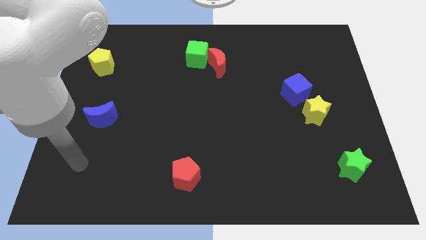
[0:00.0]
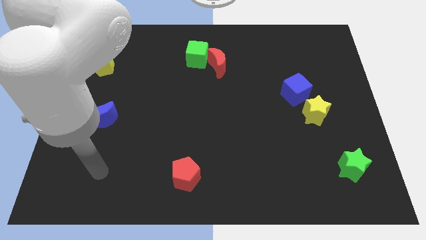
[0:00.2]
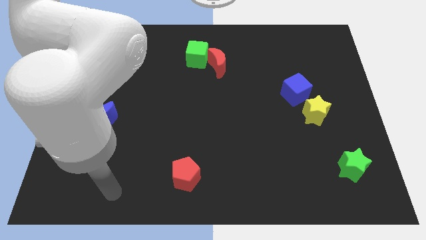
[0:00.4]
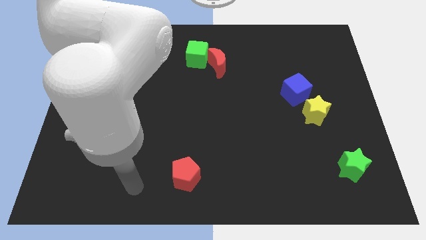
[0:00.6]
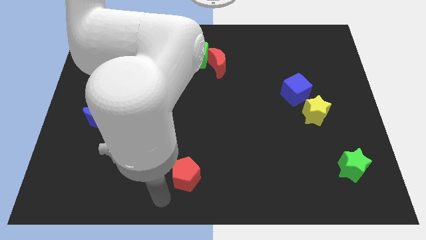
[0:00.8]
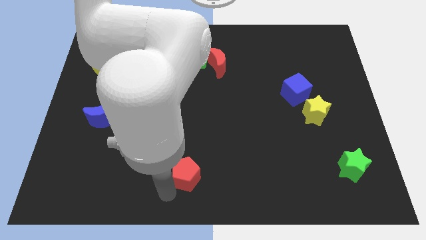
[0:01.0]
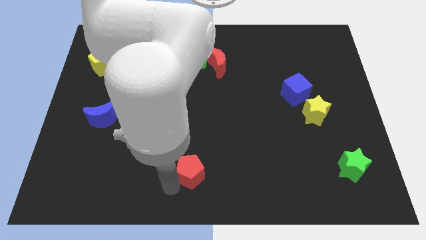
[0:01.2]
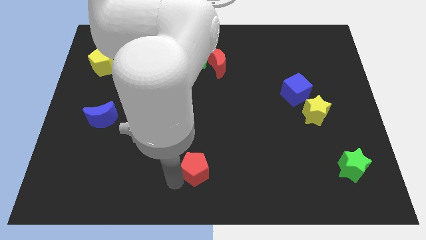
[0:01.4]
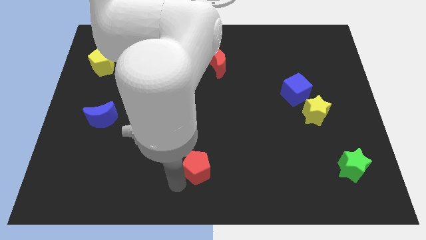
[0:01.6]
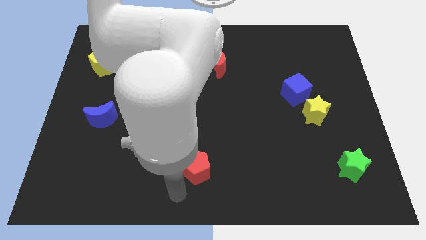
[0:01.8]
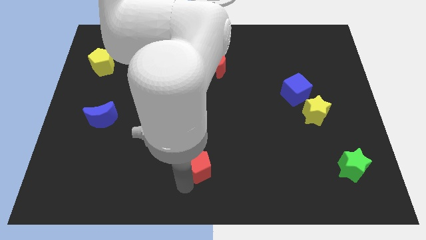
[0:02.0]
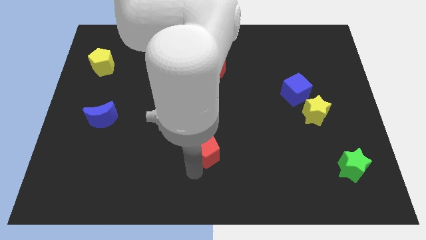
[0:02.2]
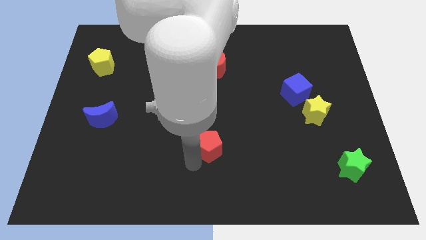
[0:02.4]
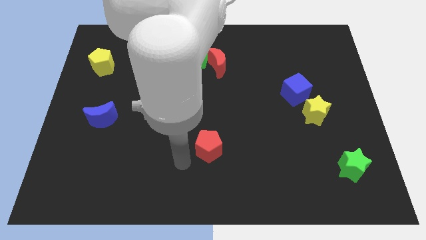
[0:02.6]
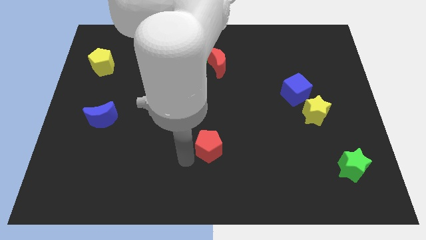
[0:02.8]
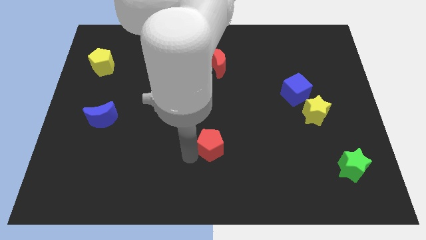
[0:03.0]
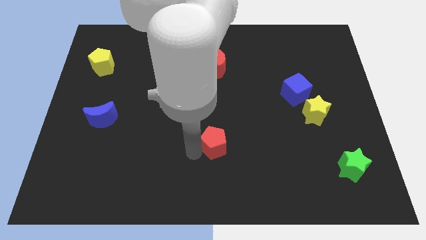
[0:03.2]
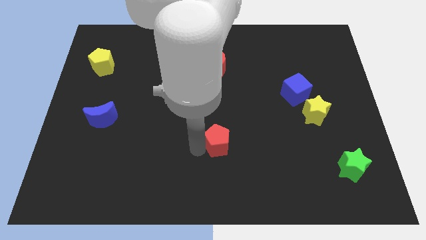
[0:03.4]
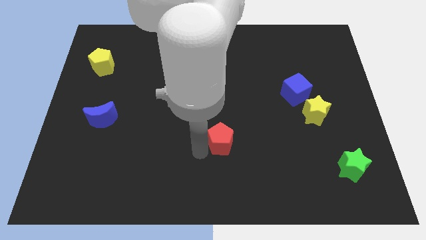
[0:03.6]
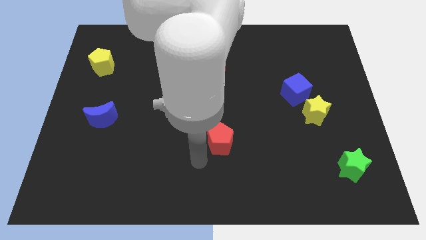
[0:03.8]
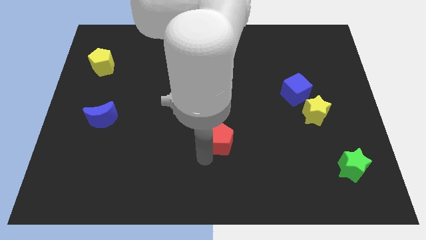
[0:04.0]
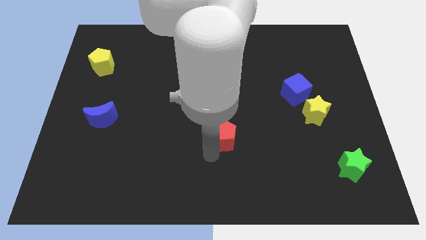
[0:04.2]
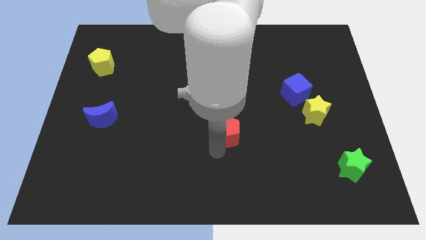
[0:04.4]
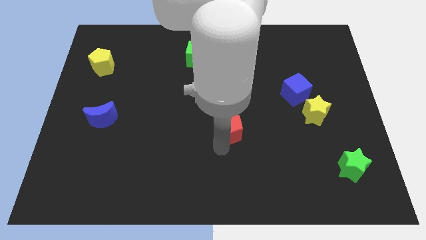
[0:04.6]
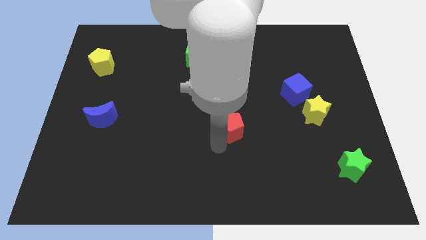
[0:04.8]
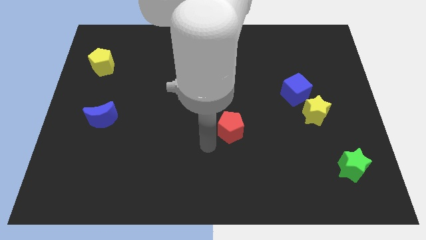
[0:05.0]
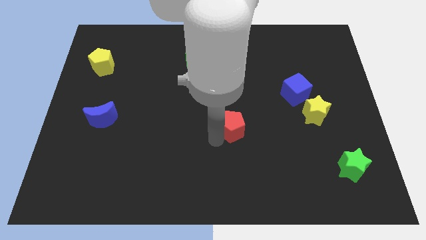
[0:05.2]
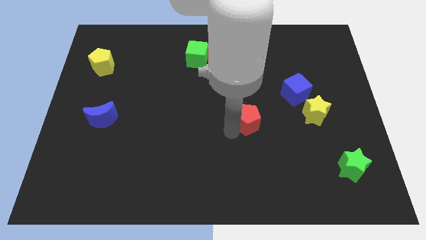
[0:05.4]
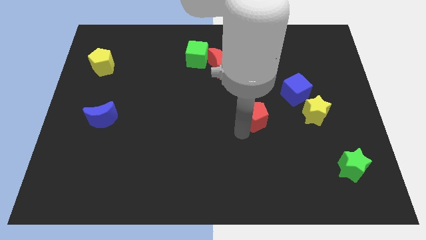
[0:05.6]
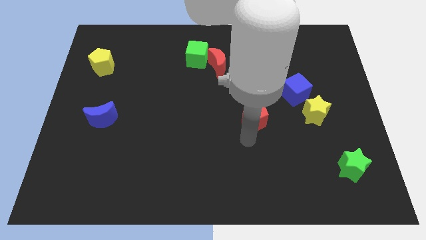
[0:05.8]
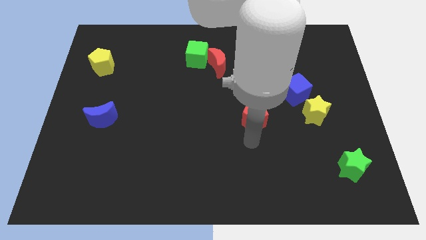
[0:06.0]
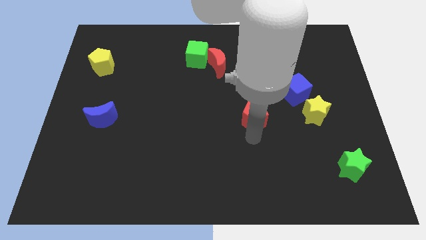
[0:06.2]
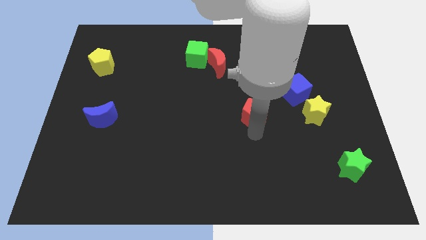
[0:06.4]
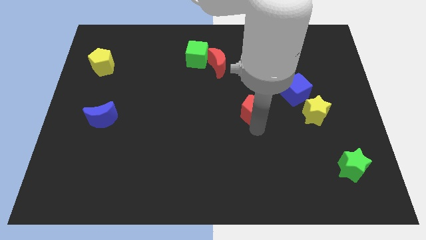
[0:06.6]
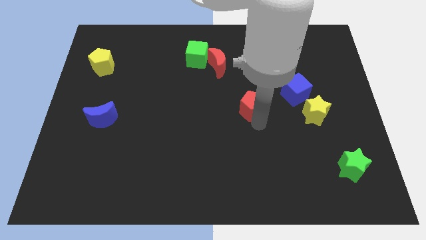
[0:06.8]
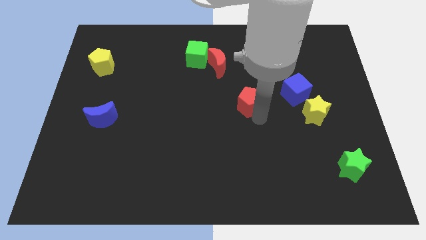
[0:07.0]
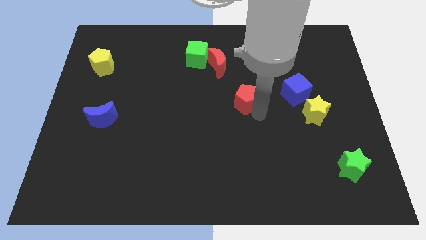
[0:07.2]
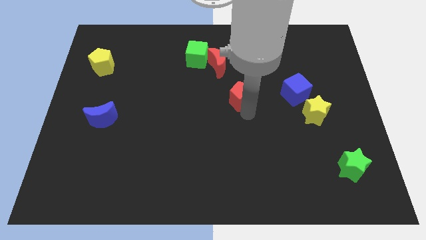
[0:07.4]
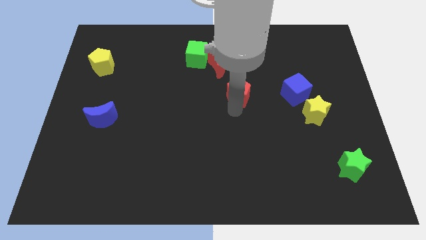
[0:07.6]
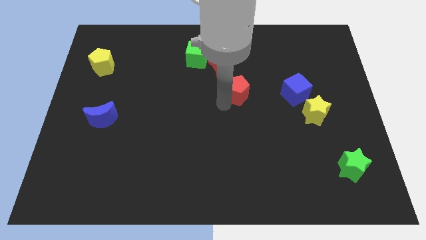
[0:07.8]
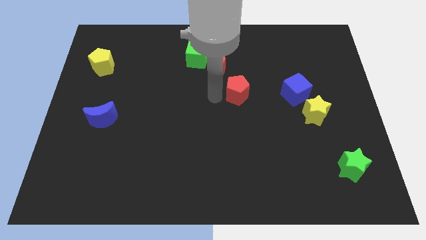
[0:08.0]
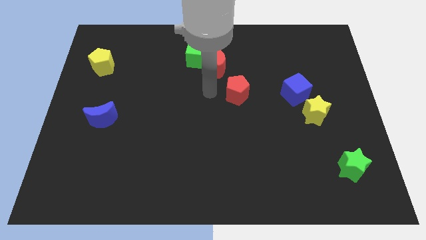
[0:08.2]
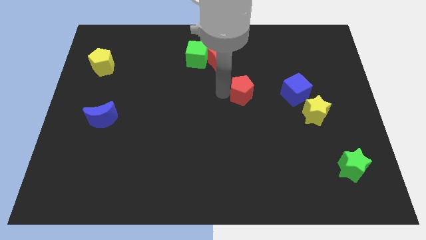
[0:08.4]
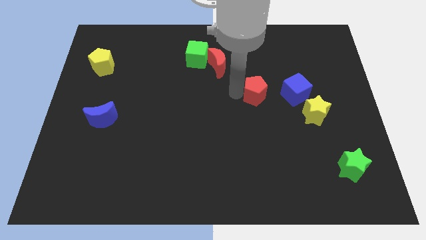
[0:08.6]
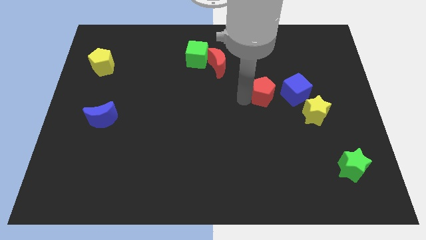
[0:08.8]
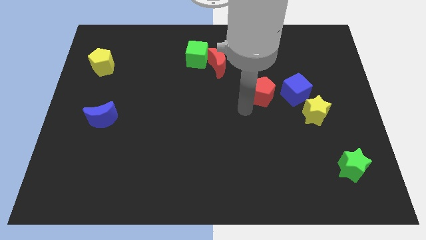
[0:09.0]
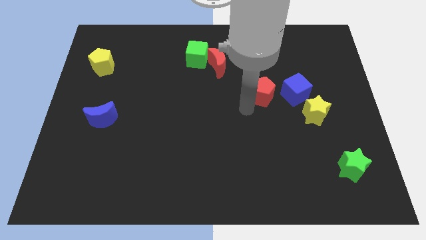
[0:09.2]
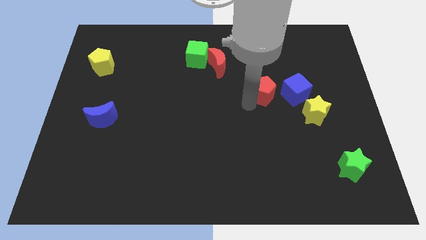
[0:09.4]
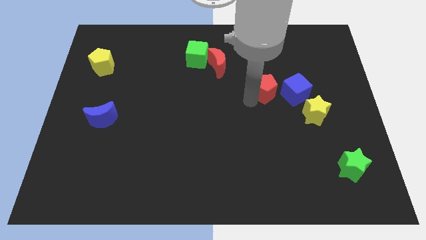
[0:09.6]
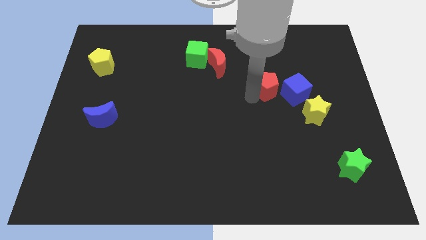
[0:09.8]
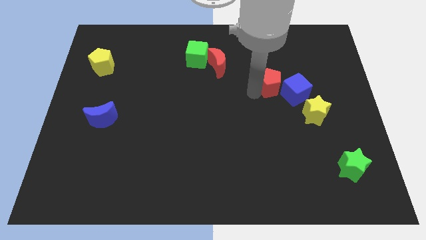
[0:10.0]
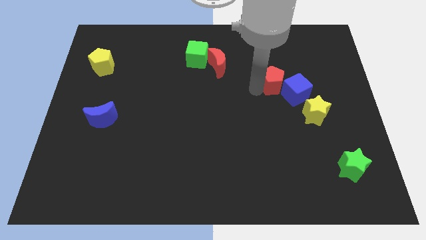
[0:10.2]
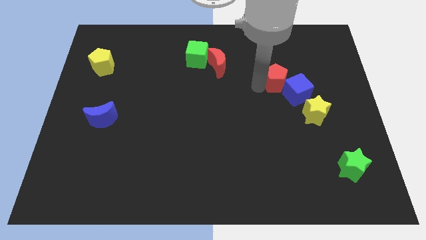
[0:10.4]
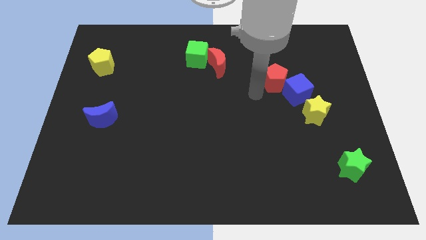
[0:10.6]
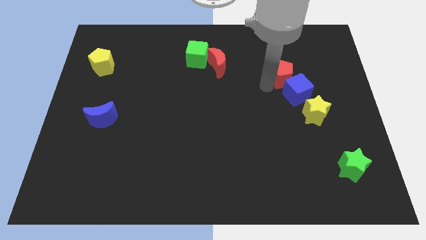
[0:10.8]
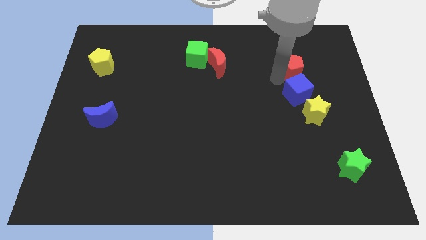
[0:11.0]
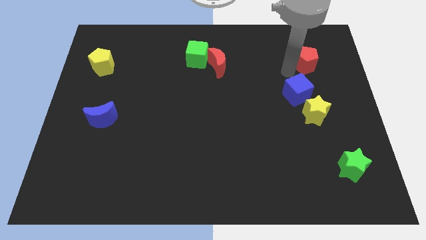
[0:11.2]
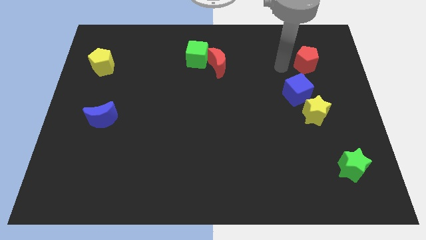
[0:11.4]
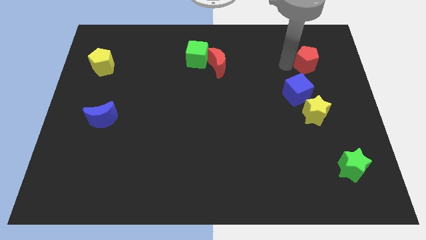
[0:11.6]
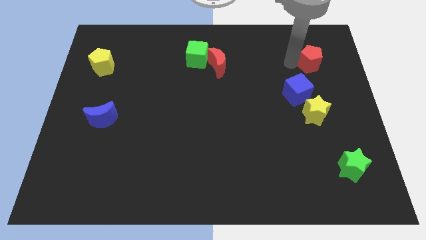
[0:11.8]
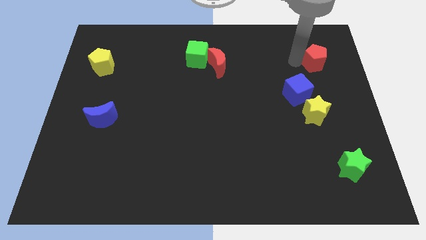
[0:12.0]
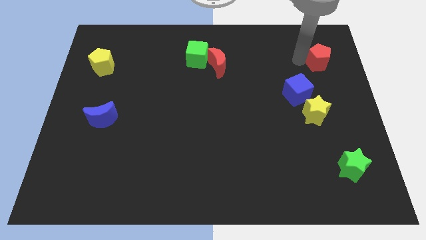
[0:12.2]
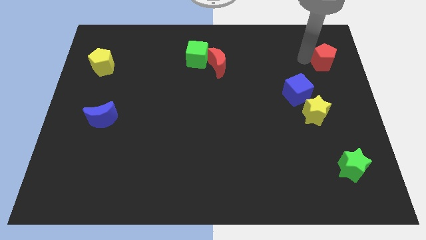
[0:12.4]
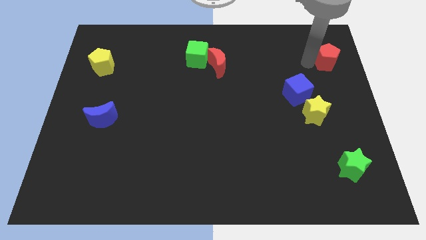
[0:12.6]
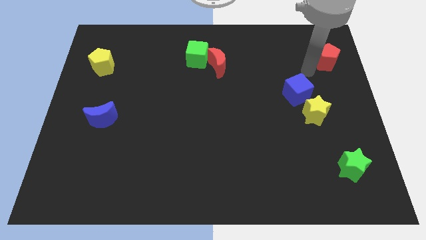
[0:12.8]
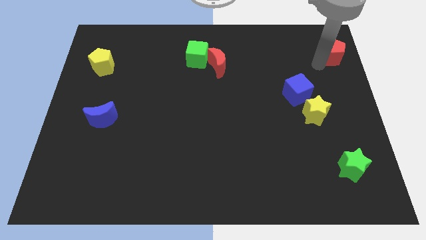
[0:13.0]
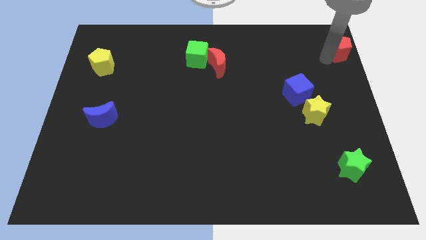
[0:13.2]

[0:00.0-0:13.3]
move the red pentagon to the top right of the board
